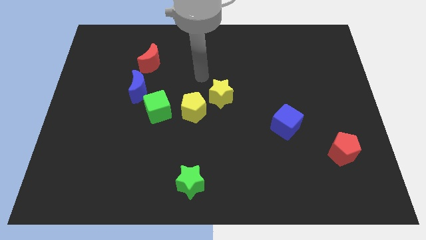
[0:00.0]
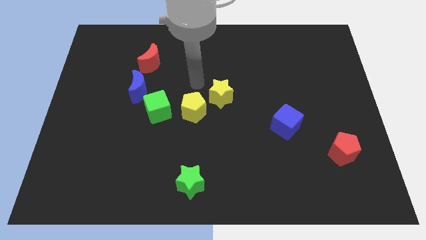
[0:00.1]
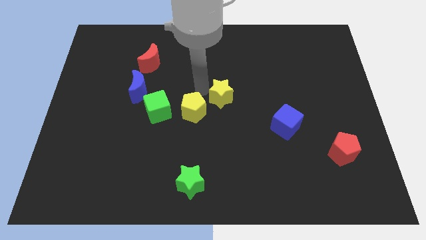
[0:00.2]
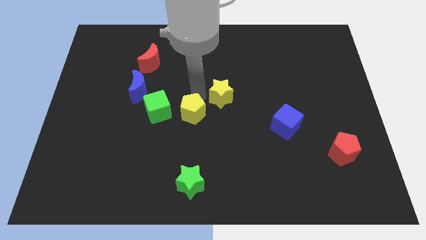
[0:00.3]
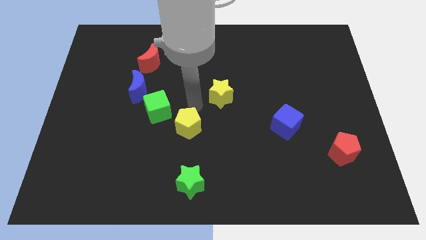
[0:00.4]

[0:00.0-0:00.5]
separate the yellow star from the yellow pentagon

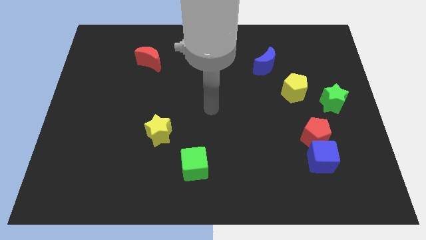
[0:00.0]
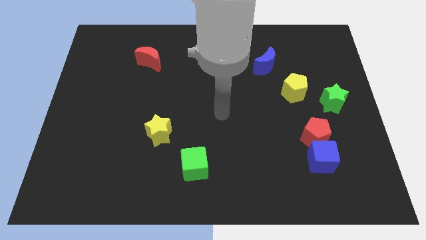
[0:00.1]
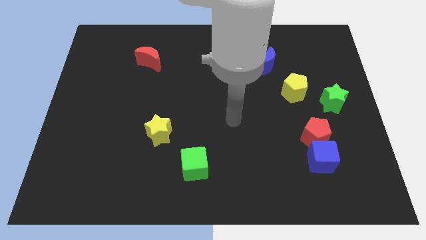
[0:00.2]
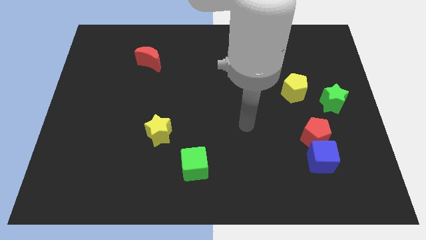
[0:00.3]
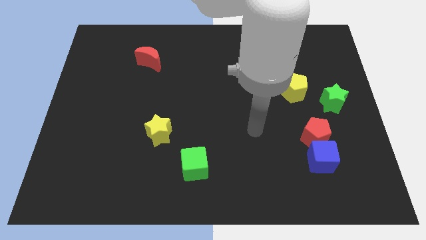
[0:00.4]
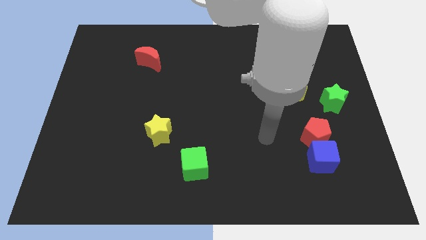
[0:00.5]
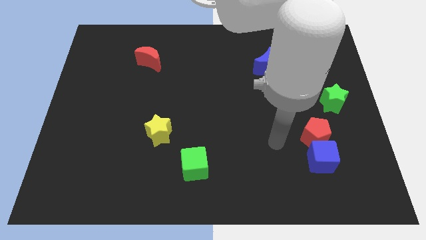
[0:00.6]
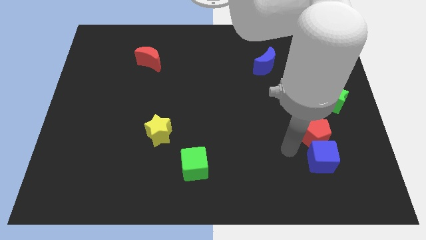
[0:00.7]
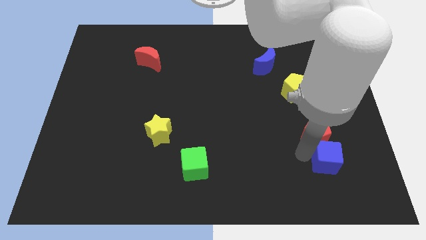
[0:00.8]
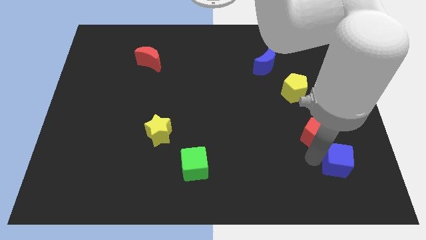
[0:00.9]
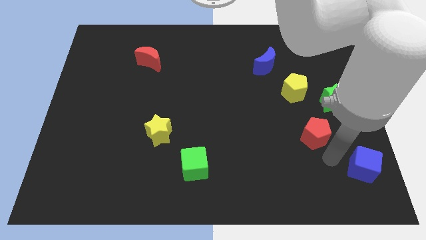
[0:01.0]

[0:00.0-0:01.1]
separate the red pentagon from the blue cube

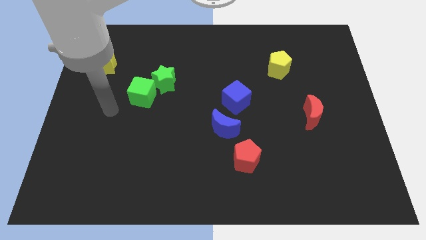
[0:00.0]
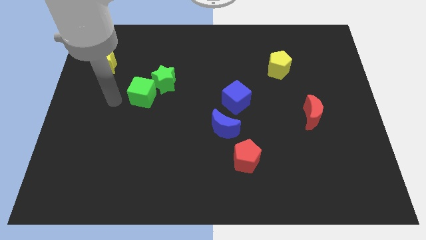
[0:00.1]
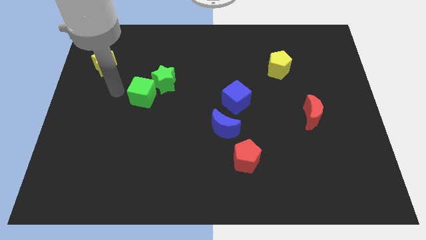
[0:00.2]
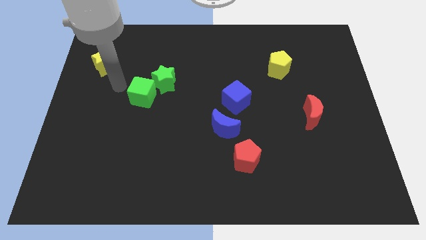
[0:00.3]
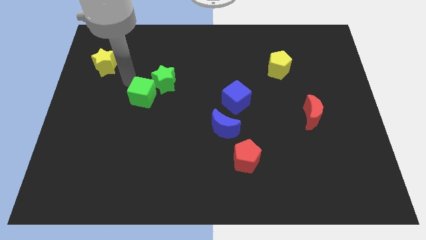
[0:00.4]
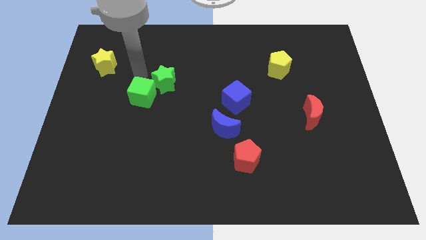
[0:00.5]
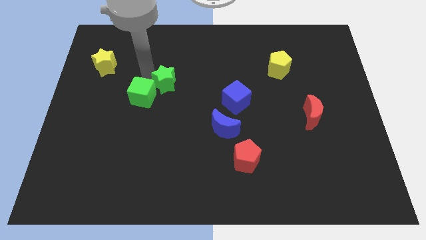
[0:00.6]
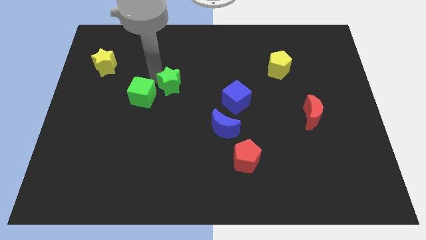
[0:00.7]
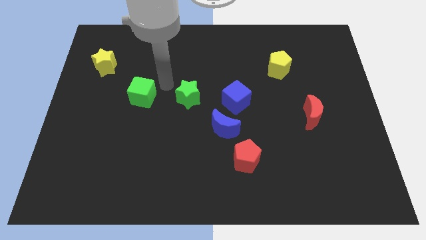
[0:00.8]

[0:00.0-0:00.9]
separate the green cube from the green star

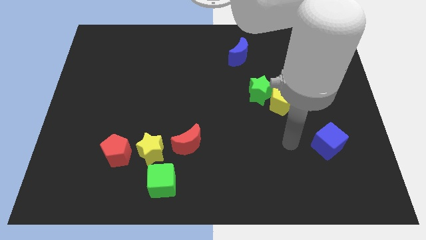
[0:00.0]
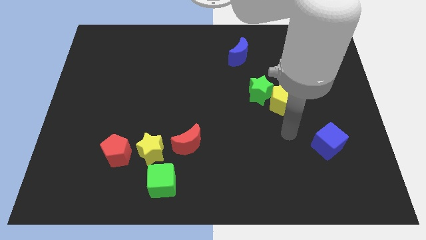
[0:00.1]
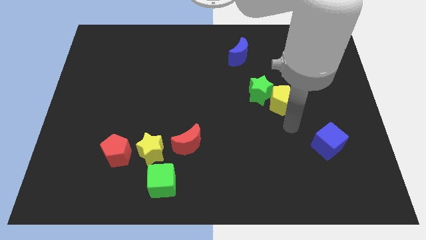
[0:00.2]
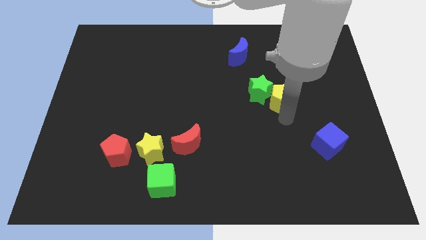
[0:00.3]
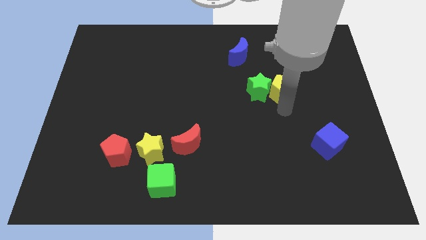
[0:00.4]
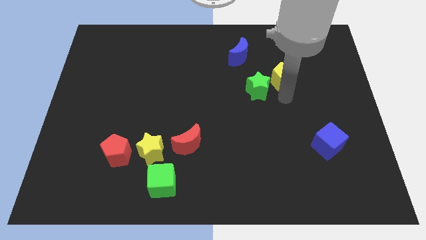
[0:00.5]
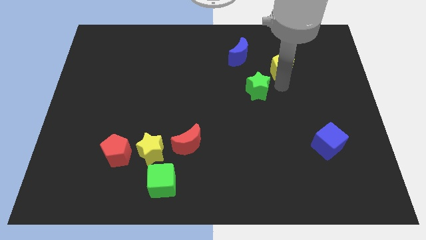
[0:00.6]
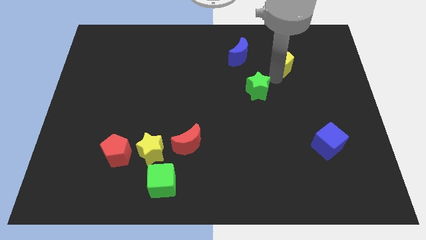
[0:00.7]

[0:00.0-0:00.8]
move the green star away from the yellow pentagon

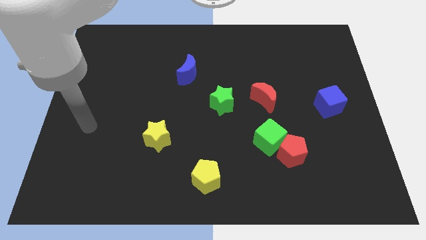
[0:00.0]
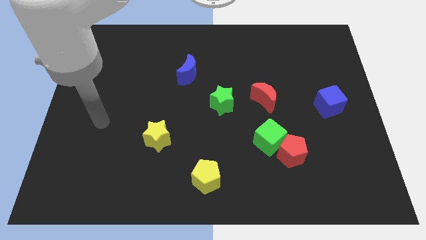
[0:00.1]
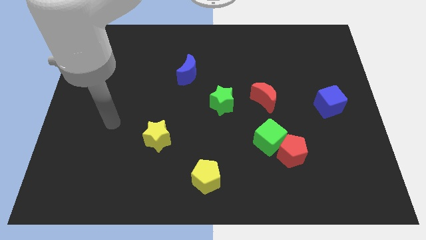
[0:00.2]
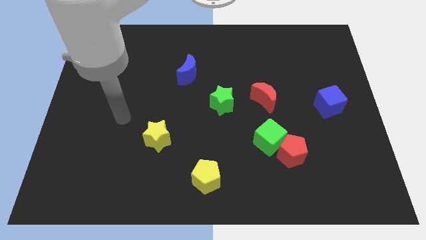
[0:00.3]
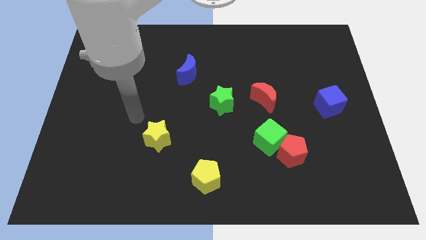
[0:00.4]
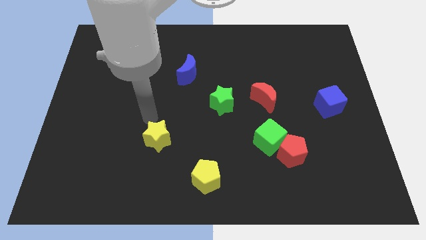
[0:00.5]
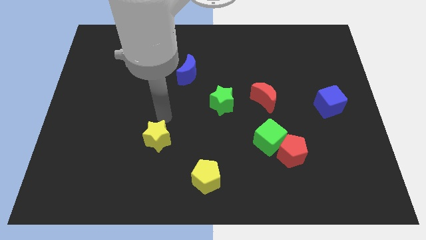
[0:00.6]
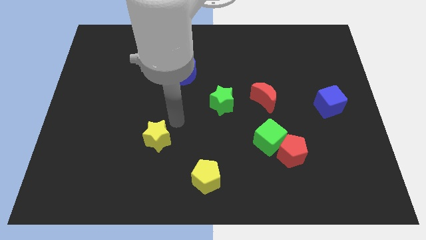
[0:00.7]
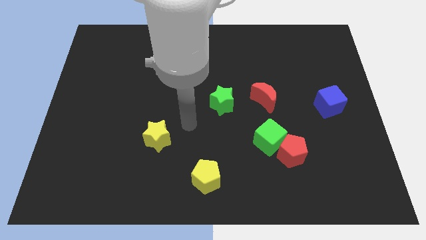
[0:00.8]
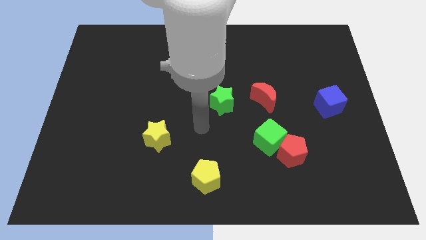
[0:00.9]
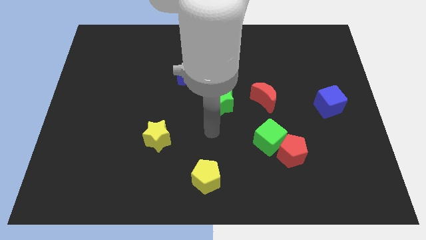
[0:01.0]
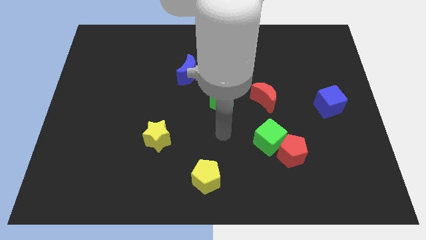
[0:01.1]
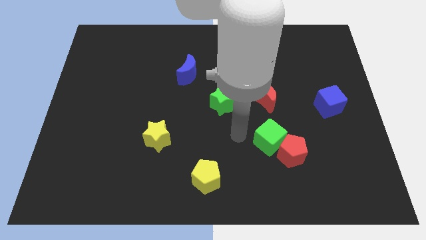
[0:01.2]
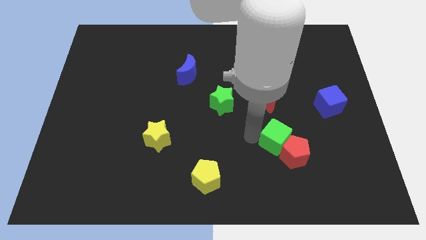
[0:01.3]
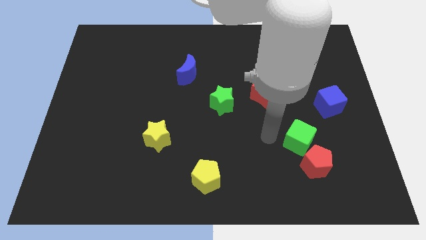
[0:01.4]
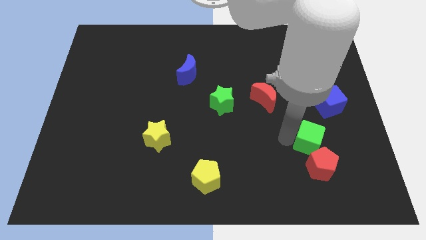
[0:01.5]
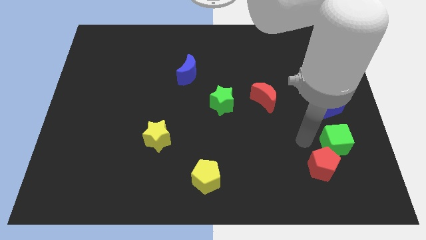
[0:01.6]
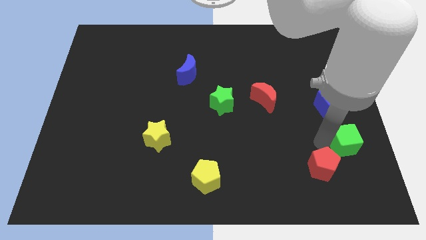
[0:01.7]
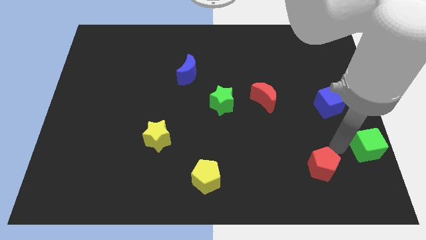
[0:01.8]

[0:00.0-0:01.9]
move the red pentagon away from the green cube

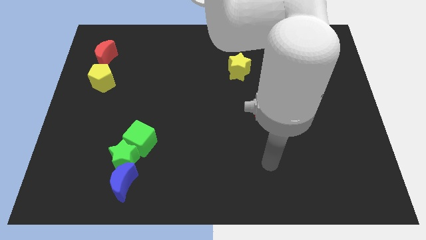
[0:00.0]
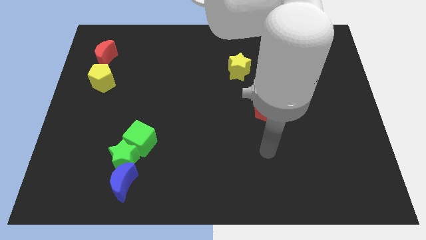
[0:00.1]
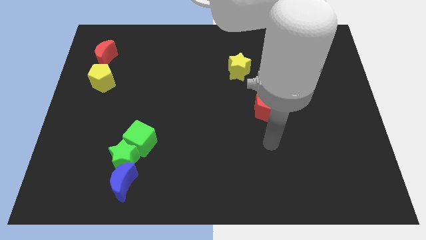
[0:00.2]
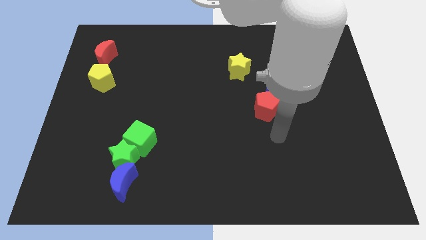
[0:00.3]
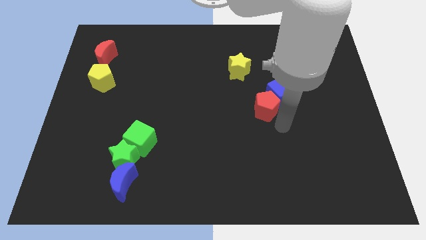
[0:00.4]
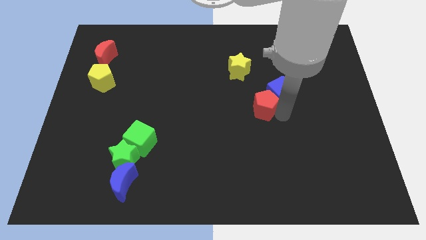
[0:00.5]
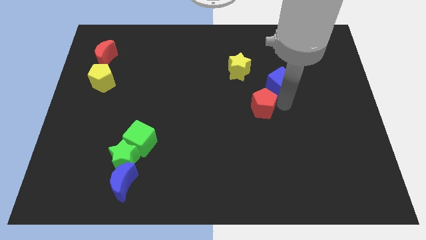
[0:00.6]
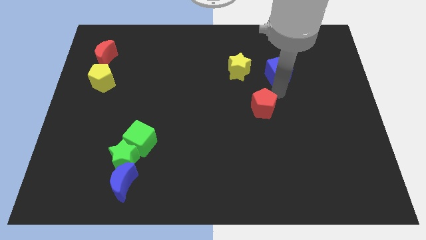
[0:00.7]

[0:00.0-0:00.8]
pull the red pentagon apart from the blue cube

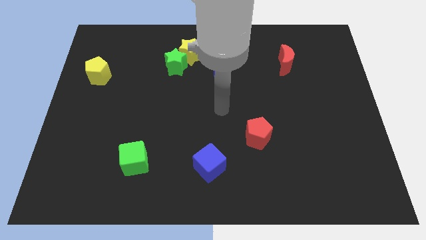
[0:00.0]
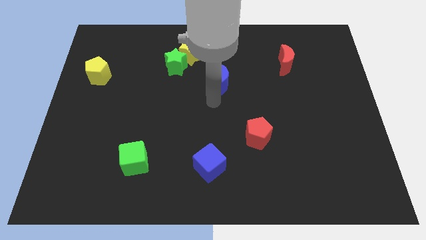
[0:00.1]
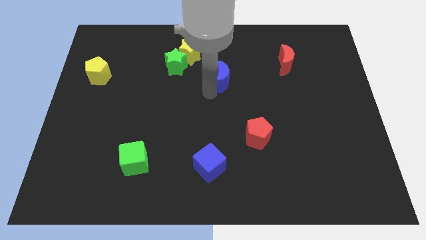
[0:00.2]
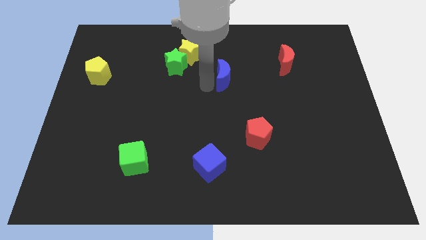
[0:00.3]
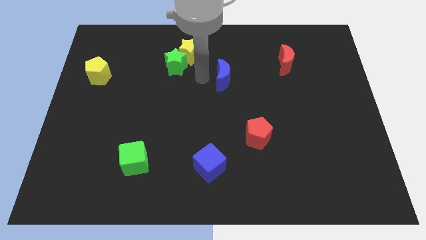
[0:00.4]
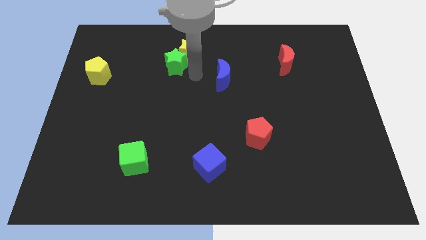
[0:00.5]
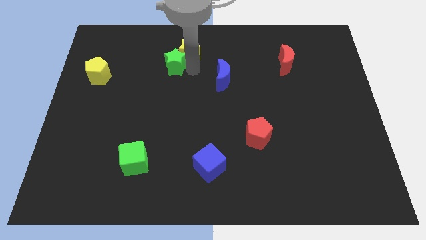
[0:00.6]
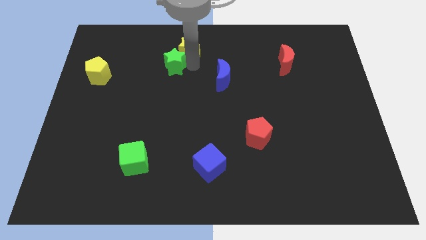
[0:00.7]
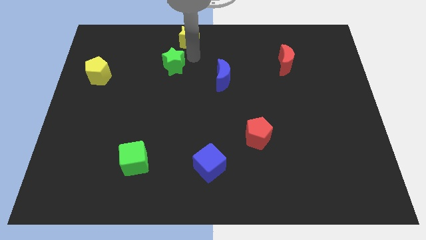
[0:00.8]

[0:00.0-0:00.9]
pull the green star apart from the yellow star

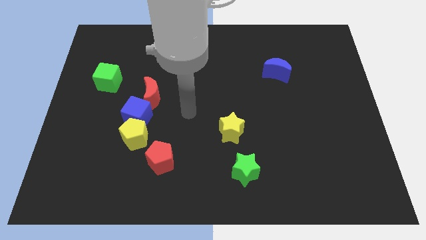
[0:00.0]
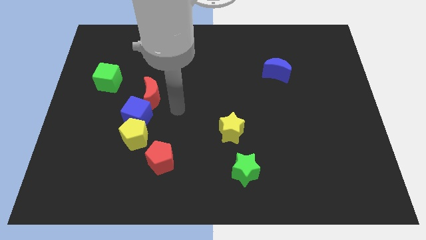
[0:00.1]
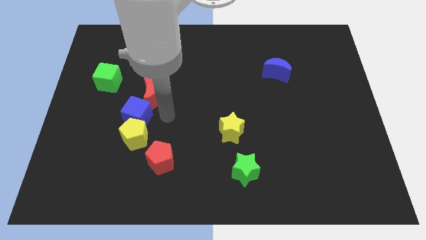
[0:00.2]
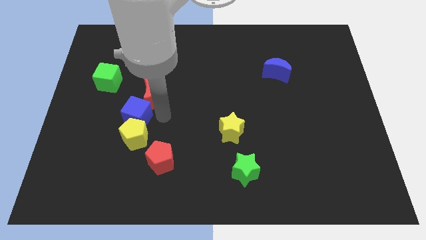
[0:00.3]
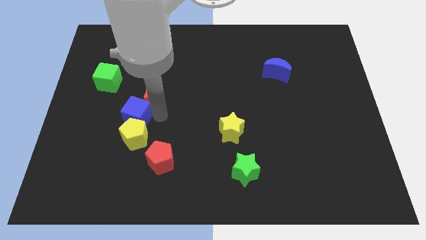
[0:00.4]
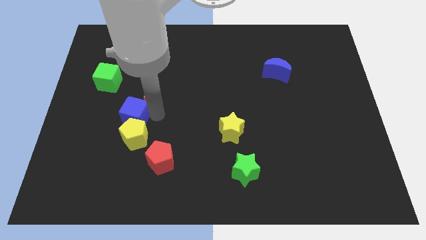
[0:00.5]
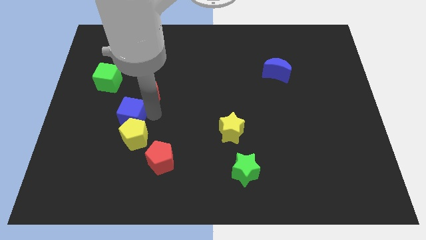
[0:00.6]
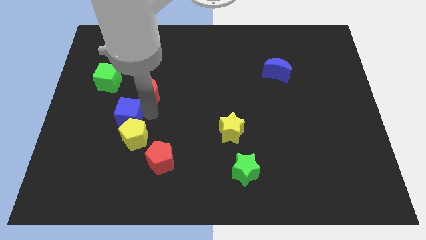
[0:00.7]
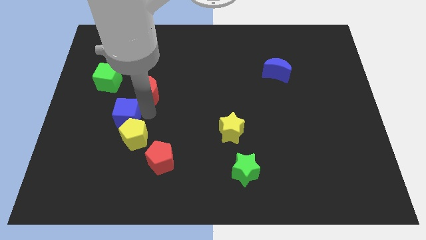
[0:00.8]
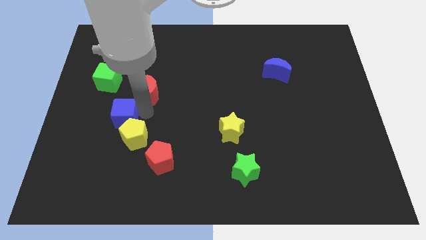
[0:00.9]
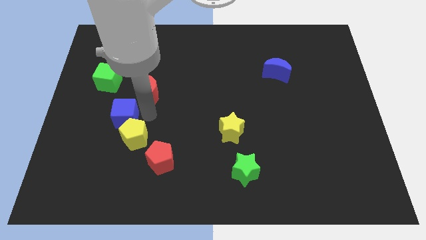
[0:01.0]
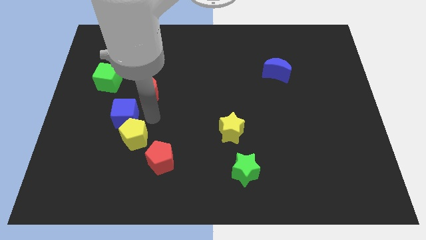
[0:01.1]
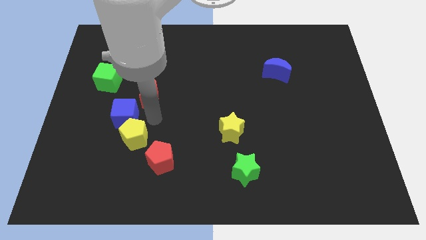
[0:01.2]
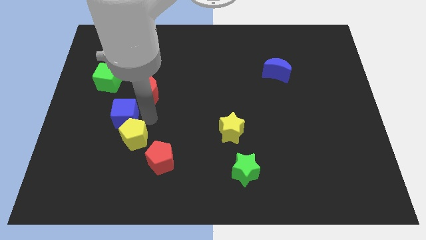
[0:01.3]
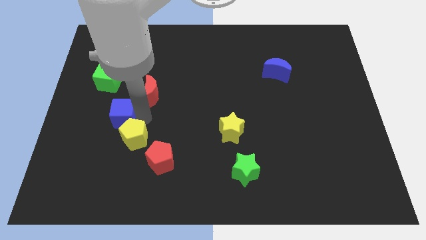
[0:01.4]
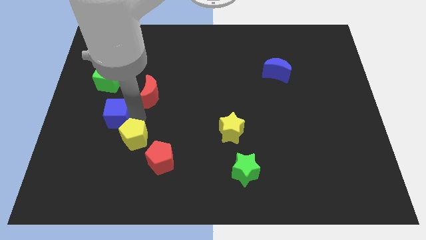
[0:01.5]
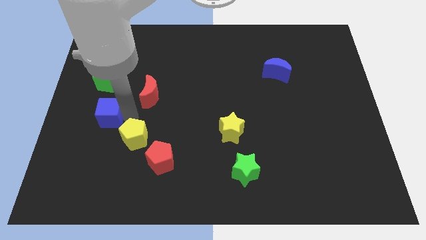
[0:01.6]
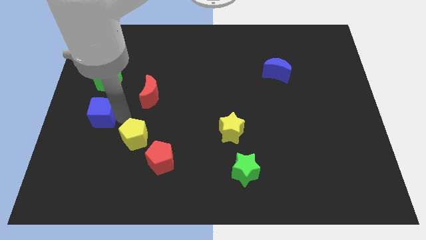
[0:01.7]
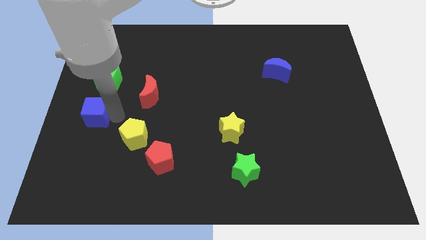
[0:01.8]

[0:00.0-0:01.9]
separate the blue cube from the yellow pentagon and red moon

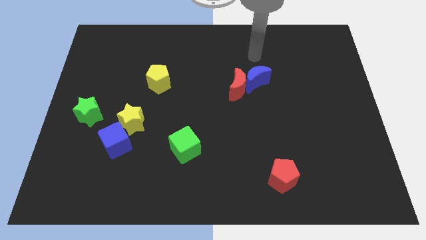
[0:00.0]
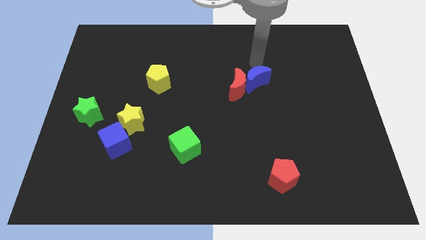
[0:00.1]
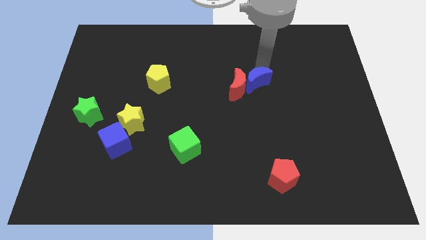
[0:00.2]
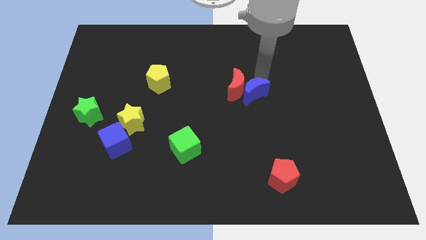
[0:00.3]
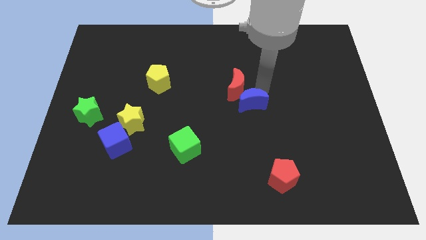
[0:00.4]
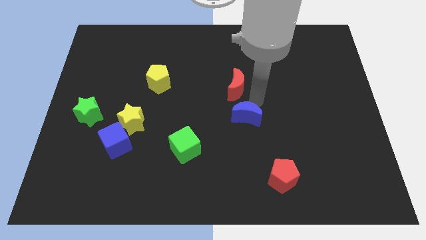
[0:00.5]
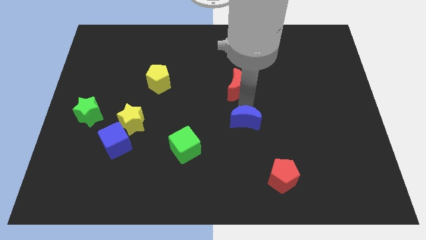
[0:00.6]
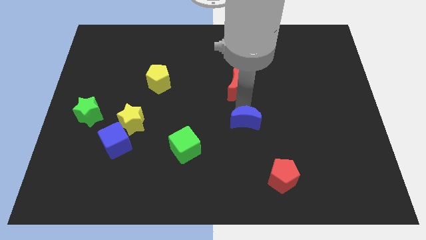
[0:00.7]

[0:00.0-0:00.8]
separate the red moon from the blue moon
